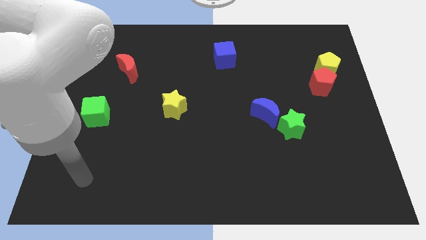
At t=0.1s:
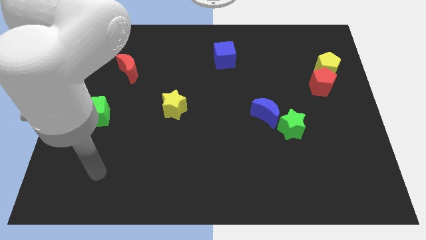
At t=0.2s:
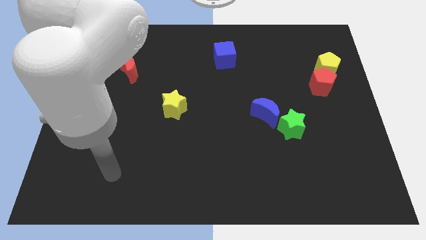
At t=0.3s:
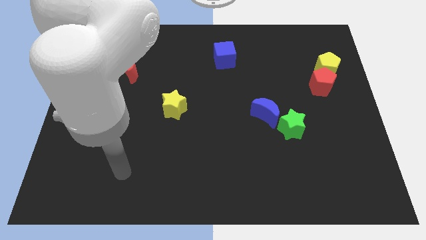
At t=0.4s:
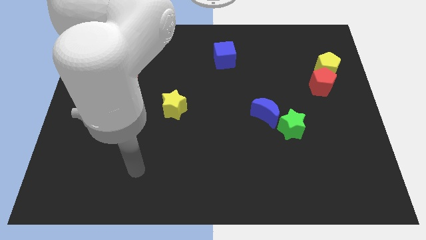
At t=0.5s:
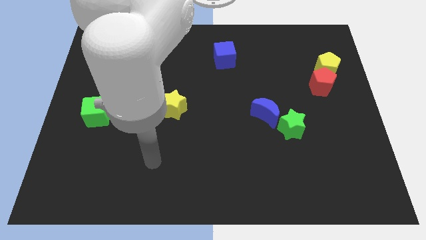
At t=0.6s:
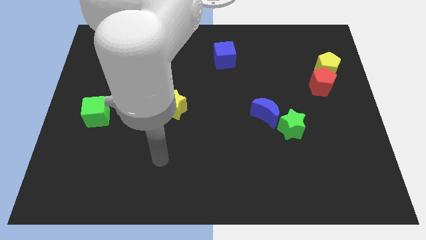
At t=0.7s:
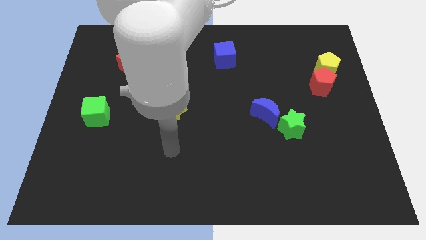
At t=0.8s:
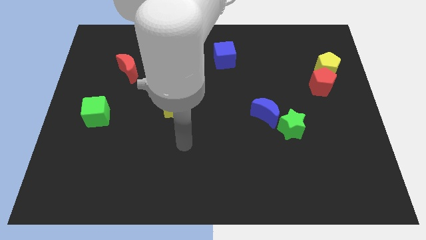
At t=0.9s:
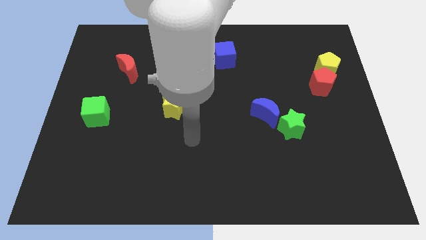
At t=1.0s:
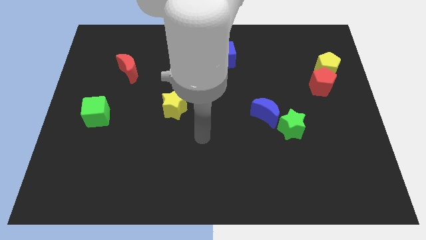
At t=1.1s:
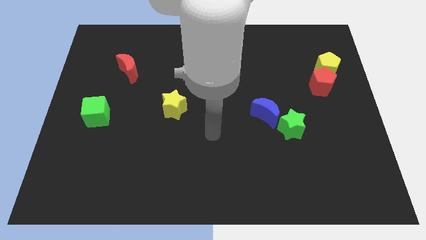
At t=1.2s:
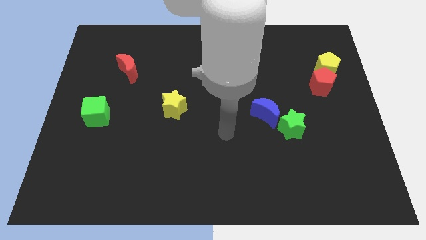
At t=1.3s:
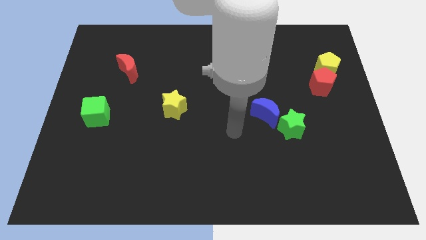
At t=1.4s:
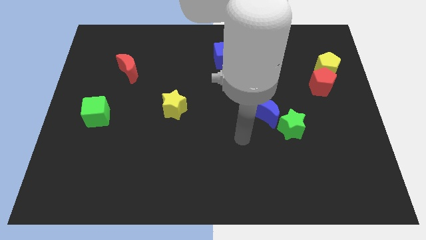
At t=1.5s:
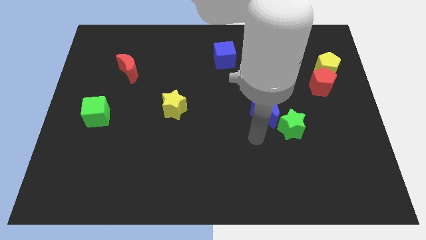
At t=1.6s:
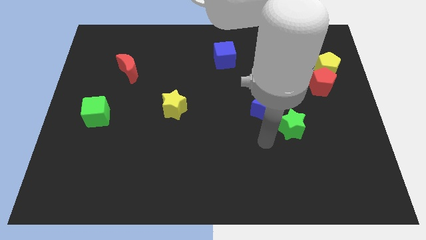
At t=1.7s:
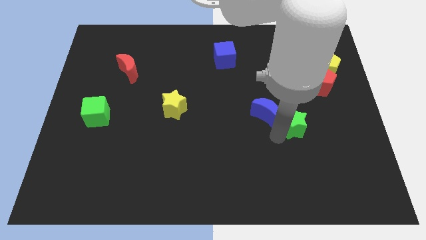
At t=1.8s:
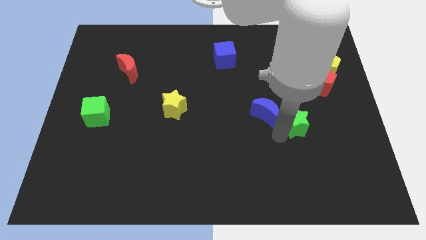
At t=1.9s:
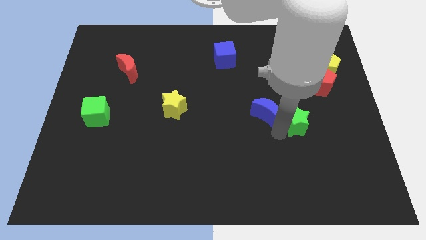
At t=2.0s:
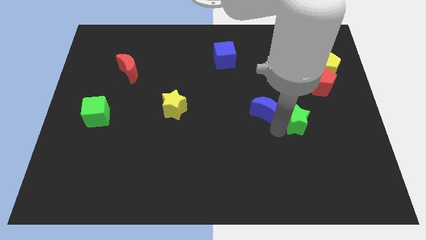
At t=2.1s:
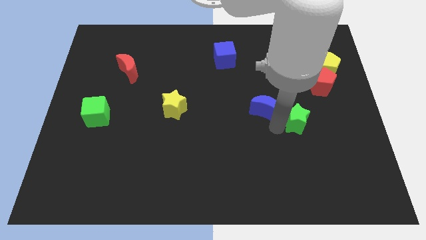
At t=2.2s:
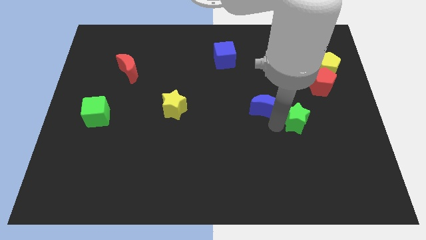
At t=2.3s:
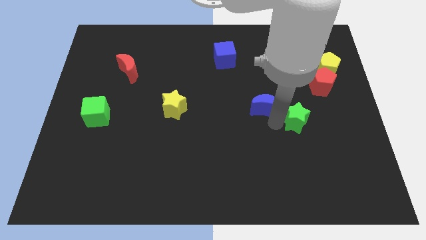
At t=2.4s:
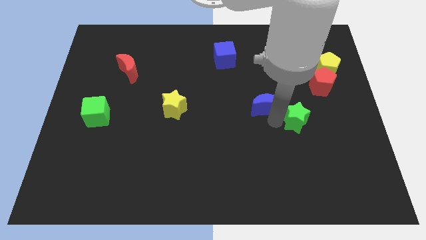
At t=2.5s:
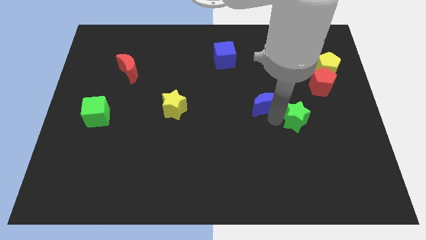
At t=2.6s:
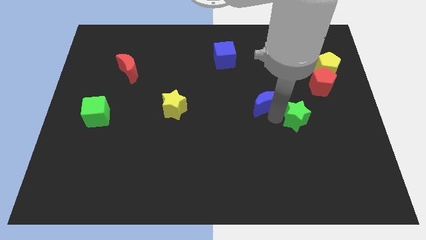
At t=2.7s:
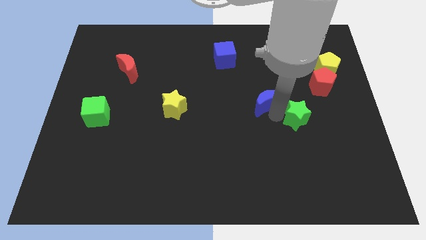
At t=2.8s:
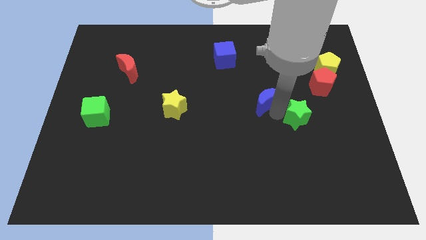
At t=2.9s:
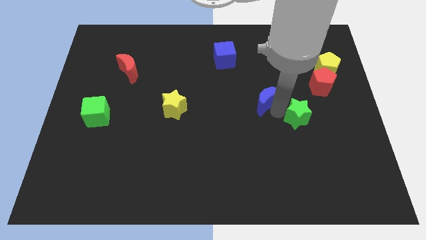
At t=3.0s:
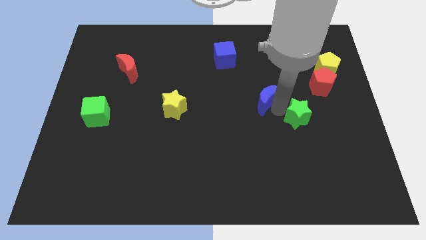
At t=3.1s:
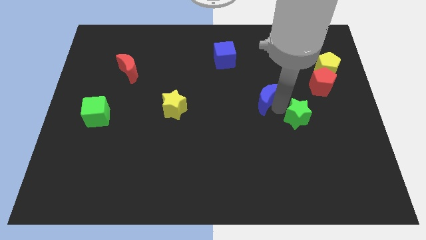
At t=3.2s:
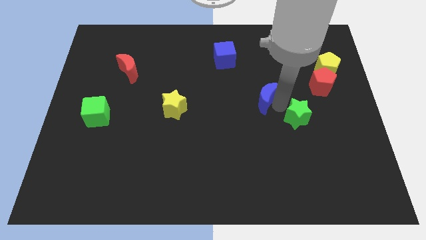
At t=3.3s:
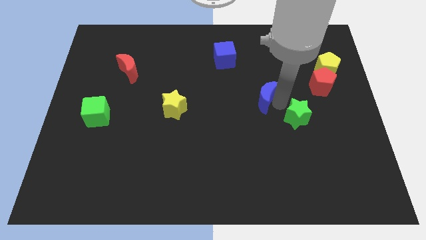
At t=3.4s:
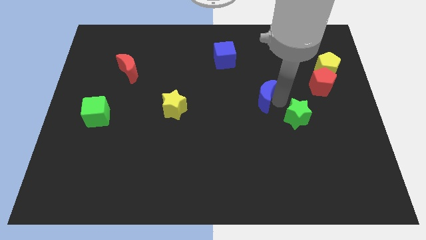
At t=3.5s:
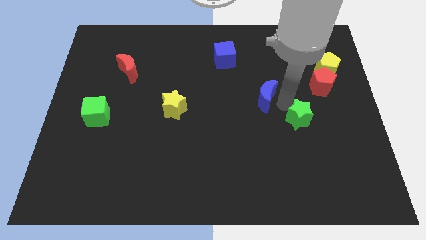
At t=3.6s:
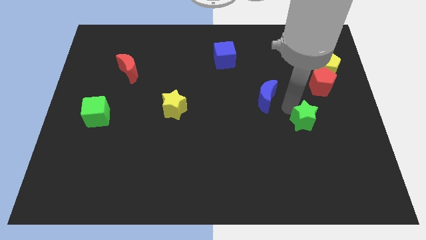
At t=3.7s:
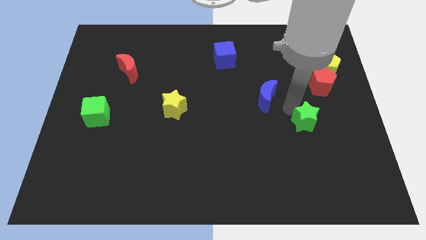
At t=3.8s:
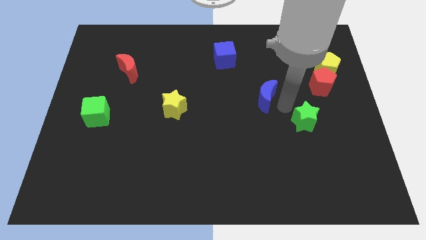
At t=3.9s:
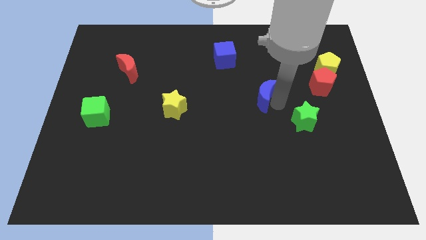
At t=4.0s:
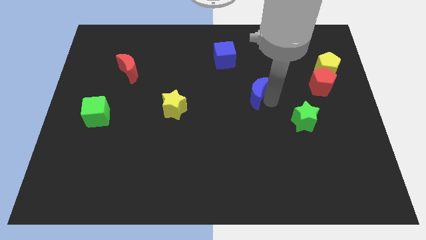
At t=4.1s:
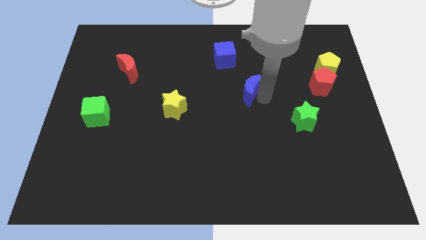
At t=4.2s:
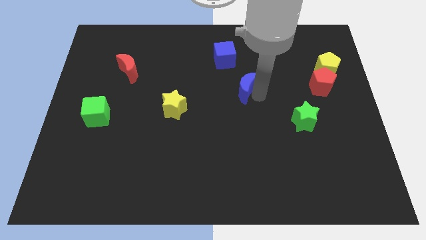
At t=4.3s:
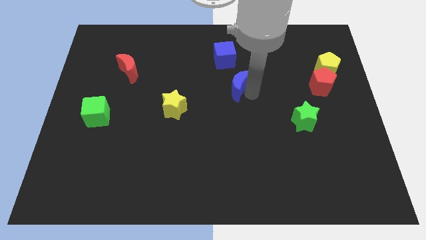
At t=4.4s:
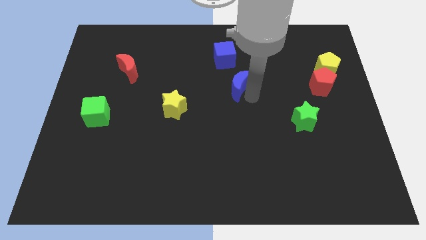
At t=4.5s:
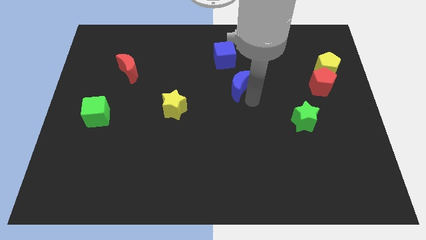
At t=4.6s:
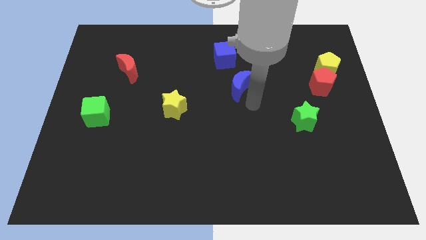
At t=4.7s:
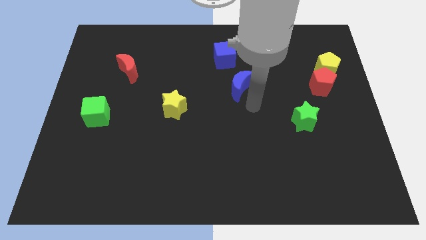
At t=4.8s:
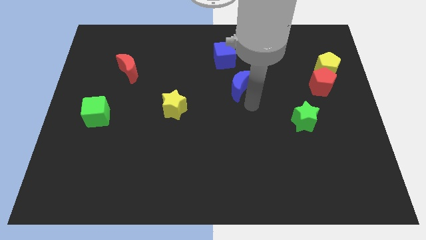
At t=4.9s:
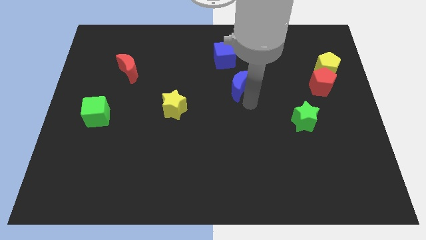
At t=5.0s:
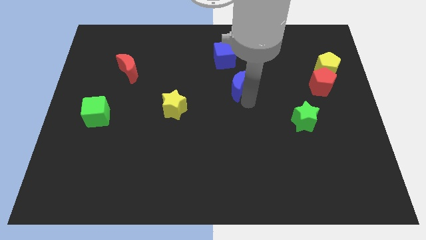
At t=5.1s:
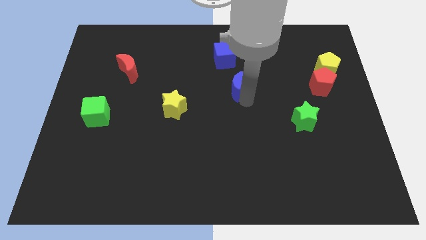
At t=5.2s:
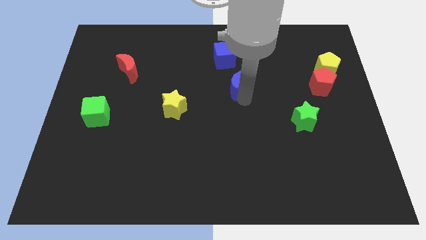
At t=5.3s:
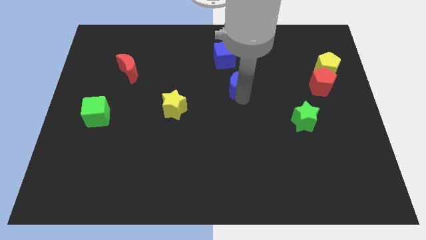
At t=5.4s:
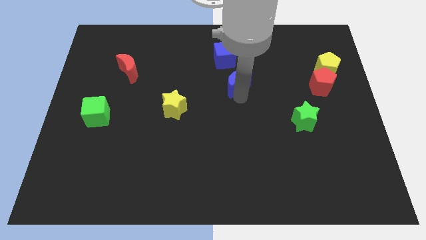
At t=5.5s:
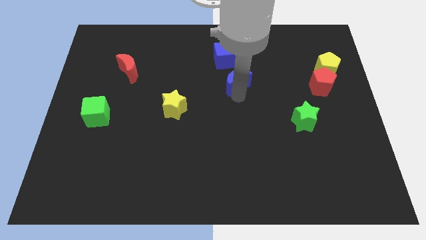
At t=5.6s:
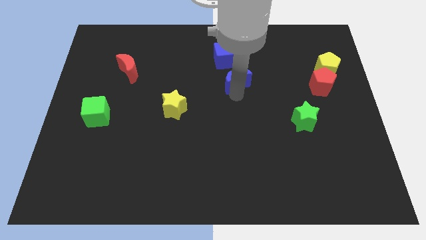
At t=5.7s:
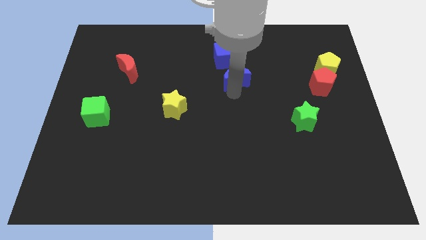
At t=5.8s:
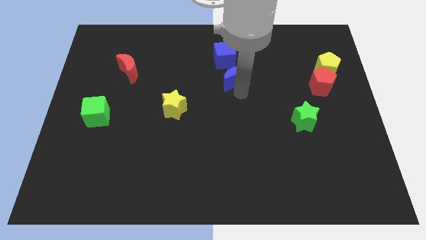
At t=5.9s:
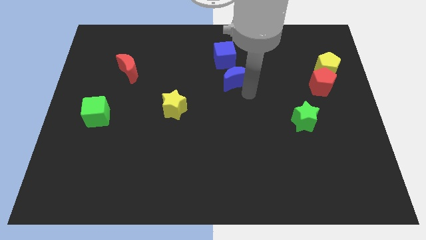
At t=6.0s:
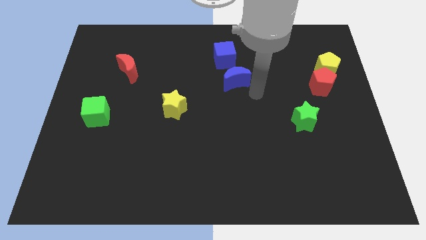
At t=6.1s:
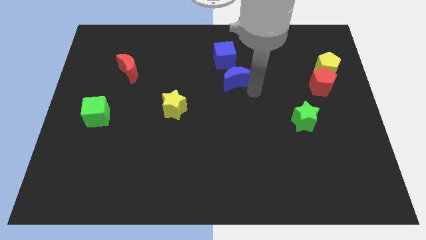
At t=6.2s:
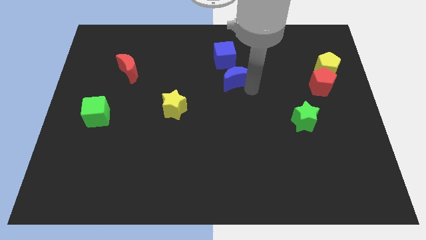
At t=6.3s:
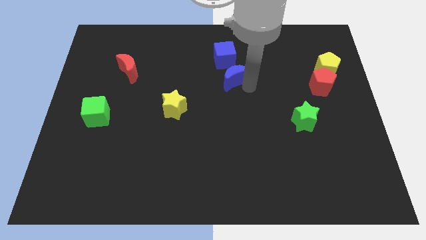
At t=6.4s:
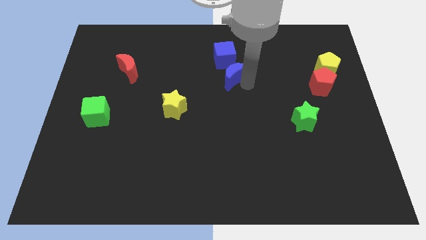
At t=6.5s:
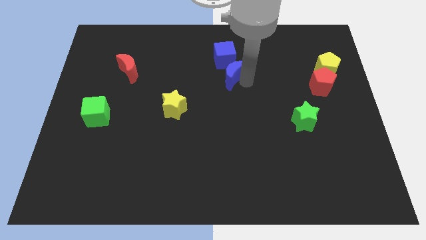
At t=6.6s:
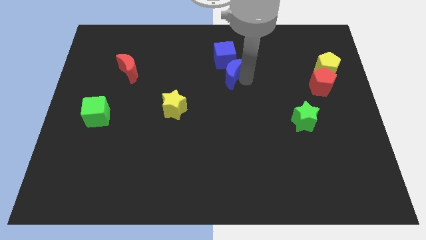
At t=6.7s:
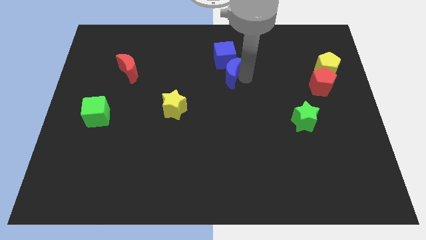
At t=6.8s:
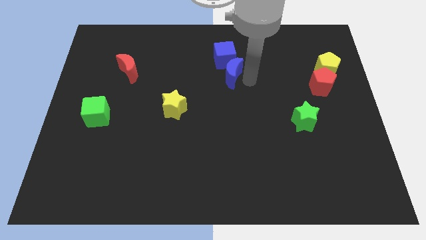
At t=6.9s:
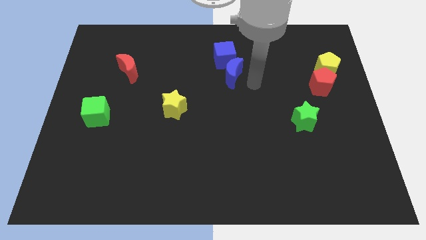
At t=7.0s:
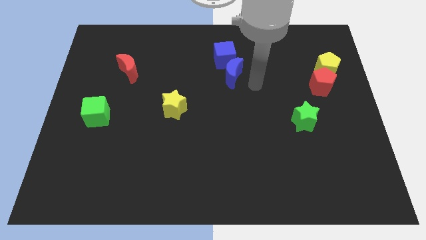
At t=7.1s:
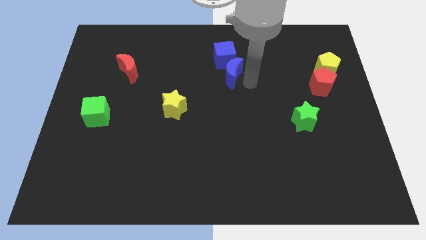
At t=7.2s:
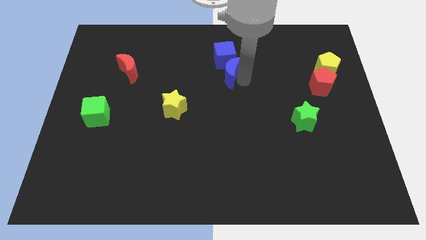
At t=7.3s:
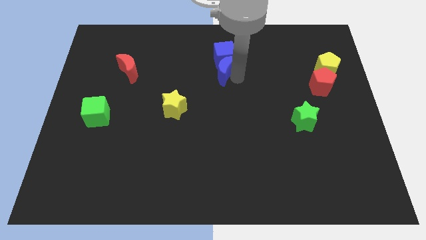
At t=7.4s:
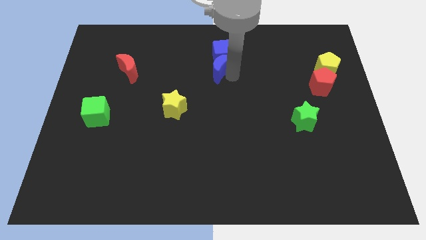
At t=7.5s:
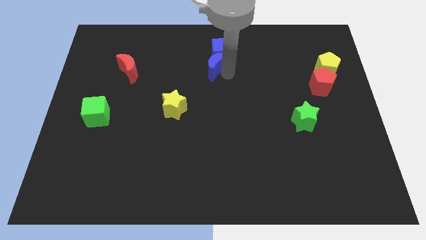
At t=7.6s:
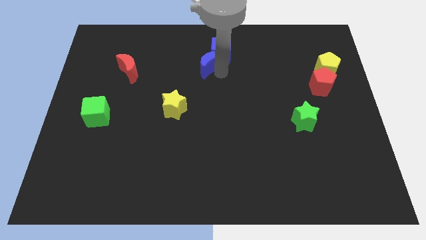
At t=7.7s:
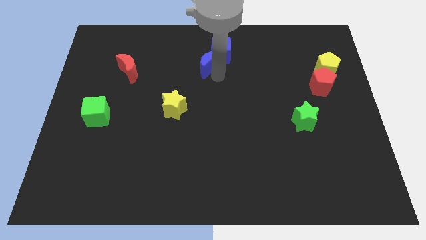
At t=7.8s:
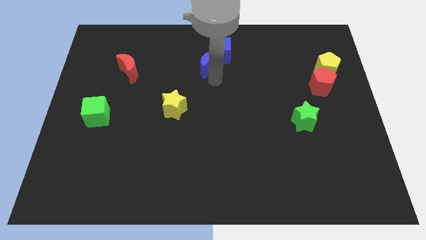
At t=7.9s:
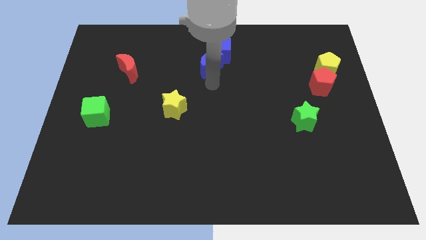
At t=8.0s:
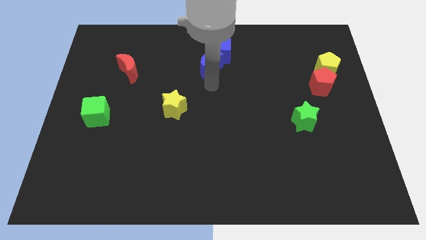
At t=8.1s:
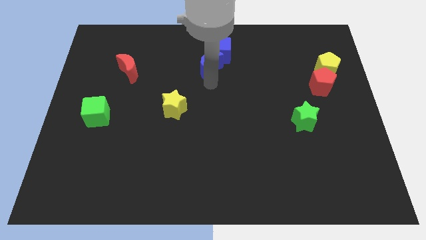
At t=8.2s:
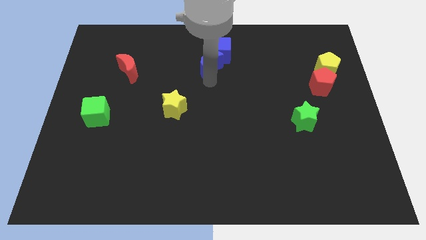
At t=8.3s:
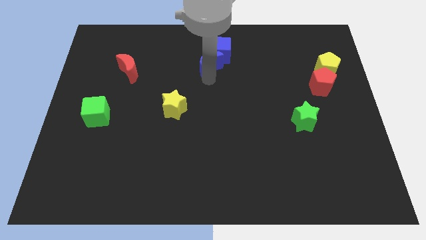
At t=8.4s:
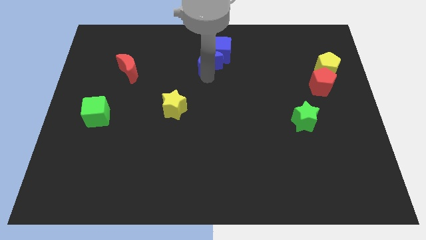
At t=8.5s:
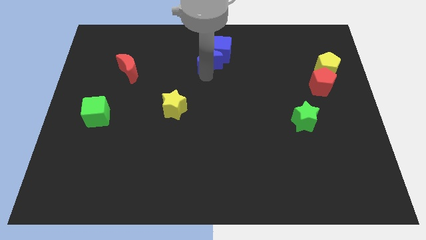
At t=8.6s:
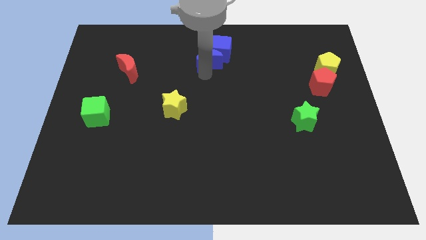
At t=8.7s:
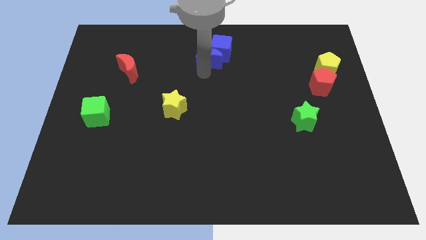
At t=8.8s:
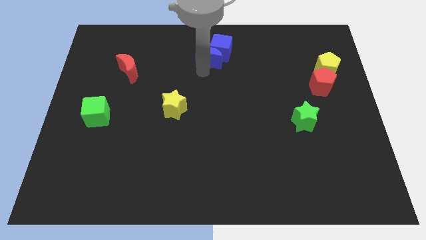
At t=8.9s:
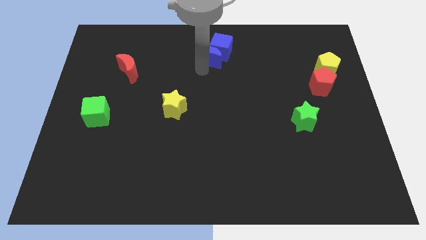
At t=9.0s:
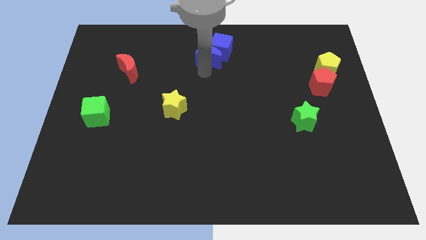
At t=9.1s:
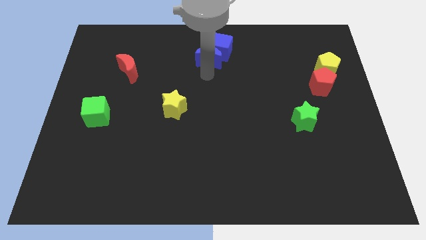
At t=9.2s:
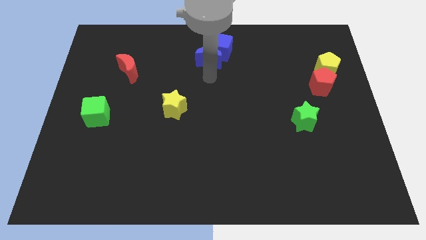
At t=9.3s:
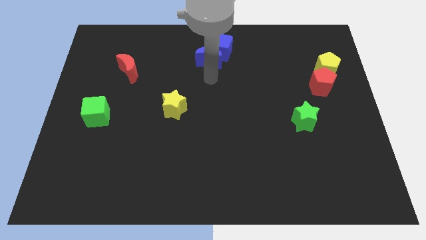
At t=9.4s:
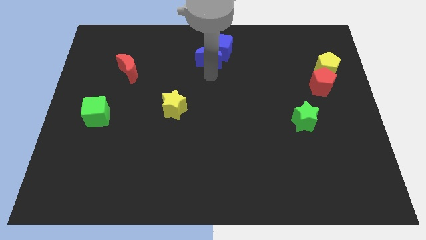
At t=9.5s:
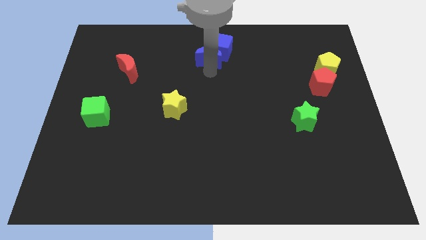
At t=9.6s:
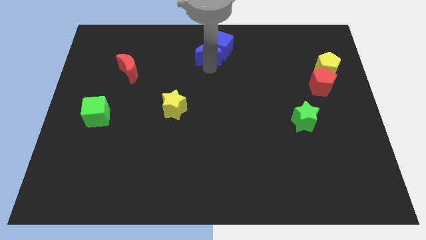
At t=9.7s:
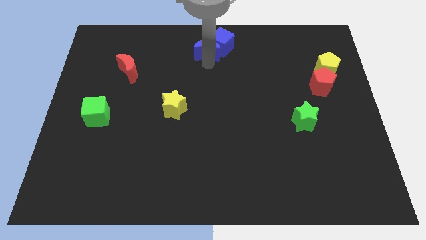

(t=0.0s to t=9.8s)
put the blue moon to the towards your base
